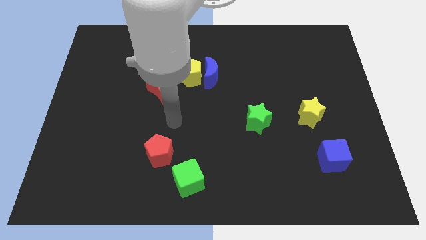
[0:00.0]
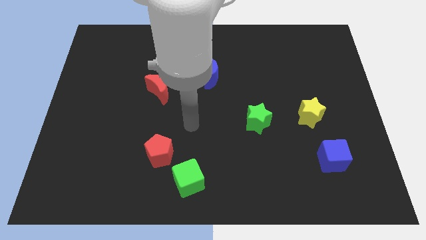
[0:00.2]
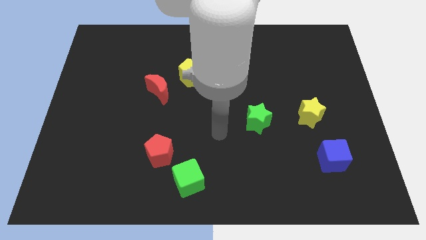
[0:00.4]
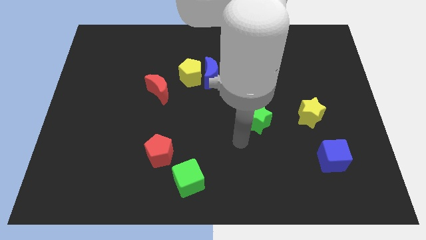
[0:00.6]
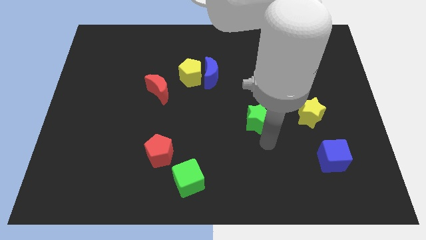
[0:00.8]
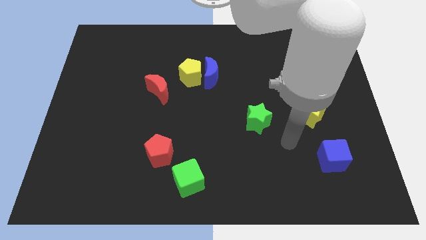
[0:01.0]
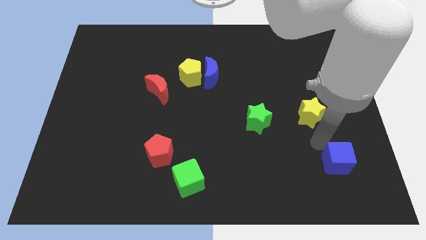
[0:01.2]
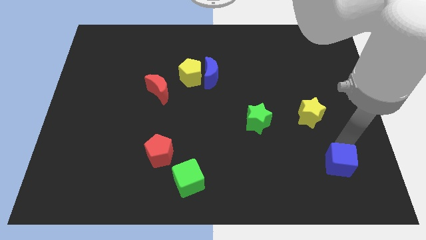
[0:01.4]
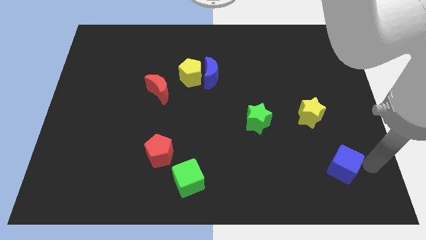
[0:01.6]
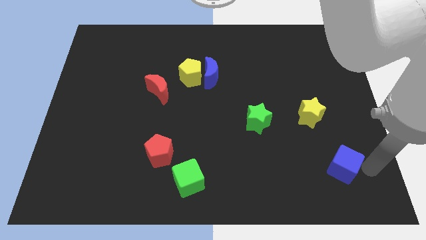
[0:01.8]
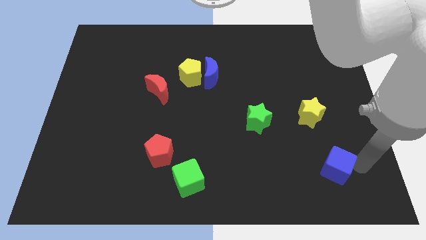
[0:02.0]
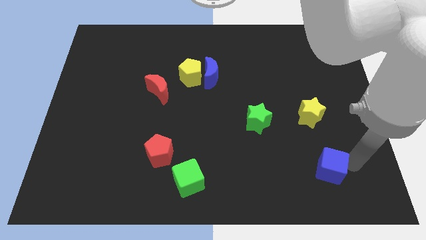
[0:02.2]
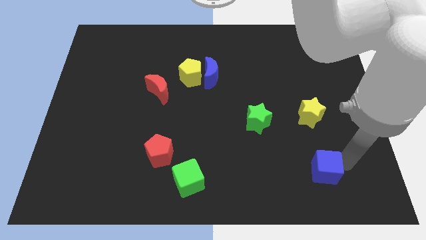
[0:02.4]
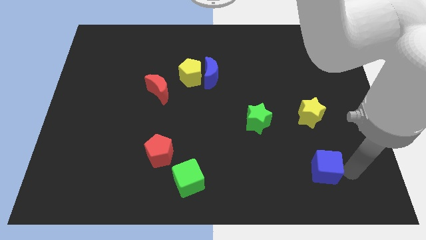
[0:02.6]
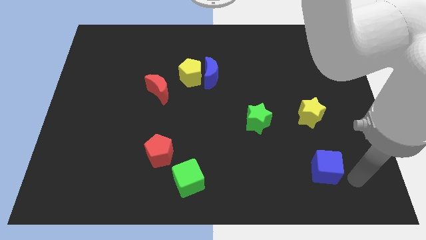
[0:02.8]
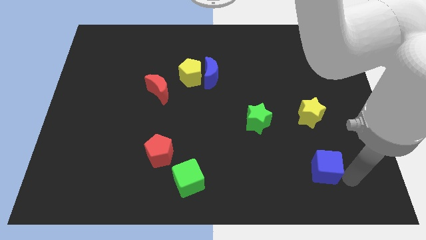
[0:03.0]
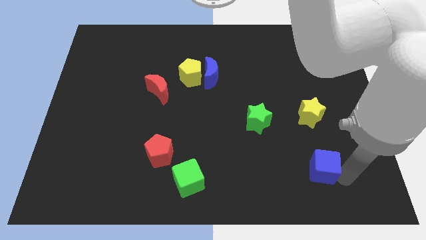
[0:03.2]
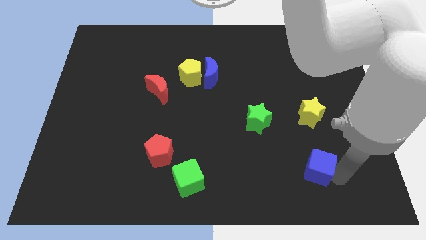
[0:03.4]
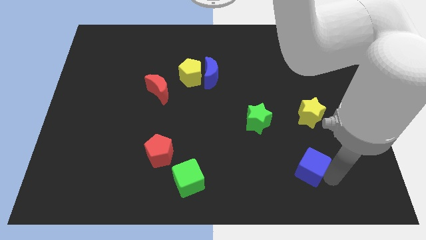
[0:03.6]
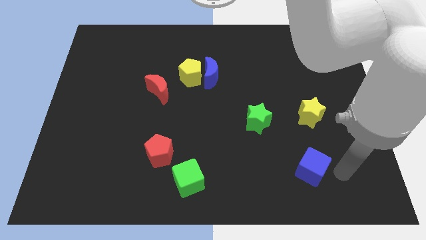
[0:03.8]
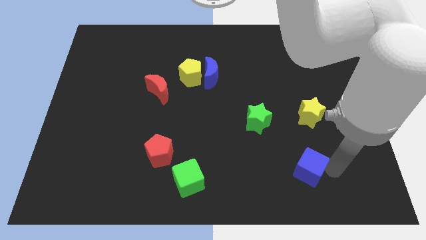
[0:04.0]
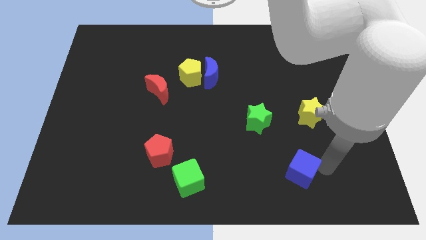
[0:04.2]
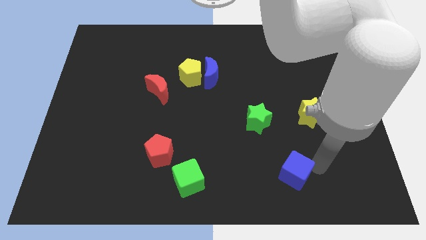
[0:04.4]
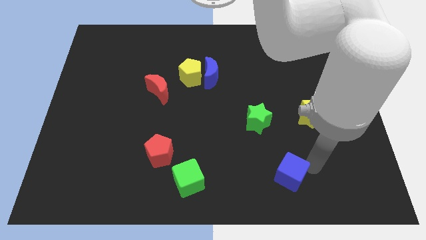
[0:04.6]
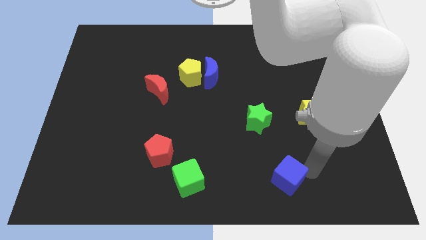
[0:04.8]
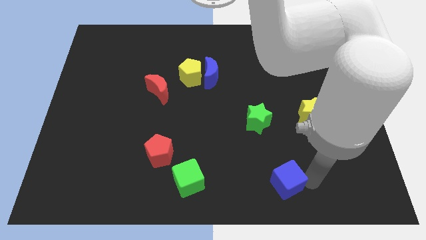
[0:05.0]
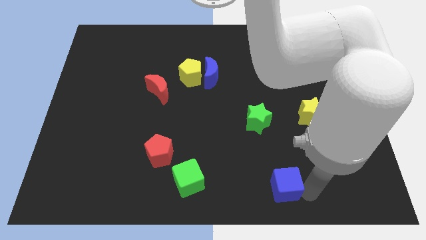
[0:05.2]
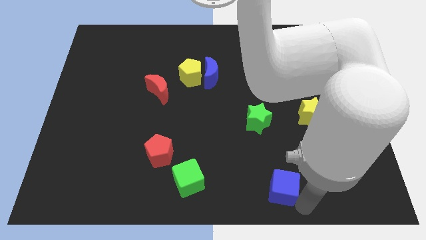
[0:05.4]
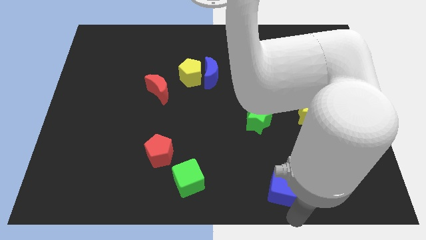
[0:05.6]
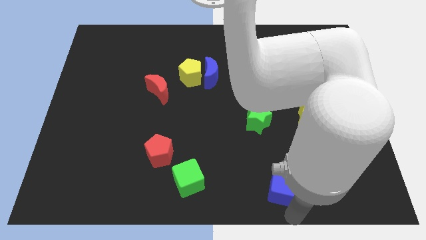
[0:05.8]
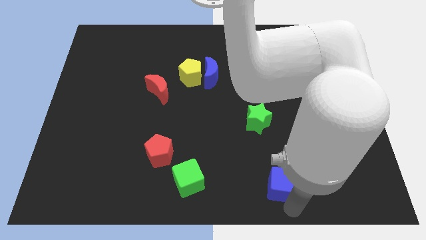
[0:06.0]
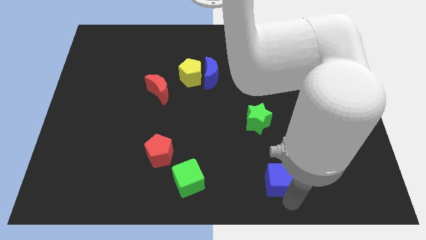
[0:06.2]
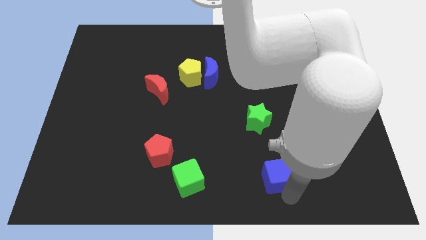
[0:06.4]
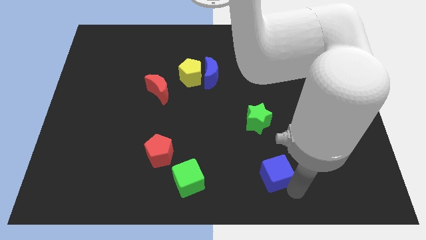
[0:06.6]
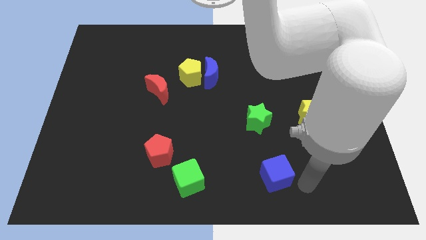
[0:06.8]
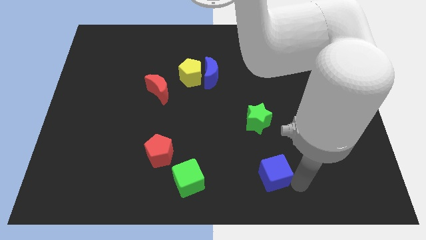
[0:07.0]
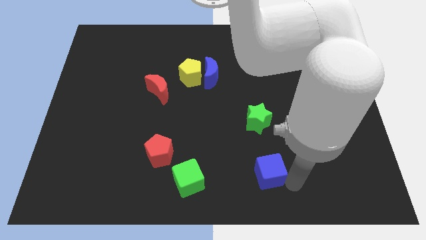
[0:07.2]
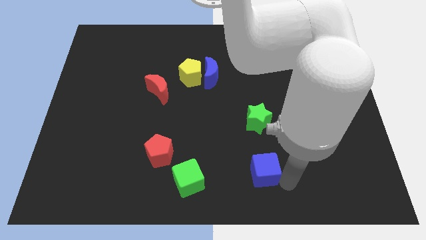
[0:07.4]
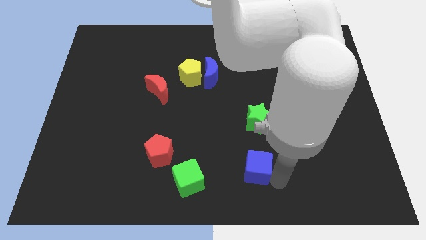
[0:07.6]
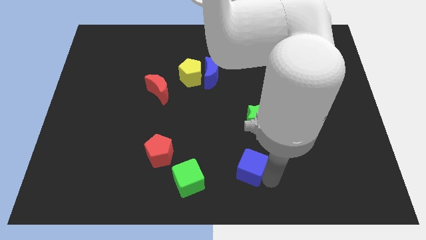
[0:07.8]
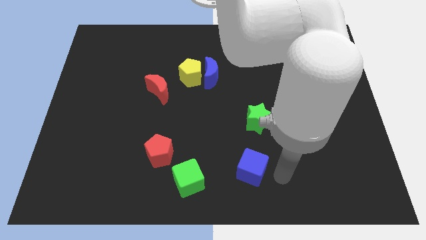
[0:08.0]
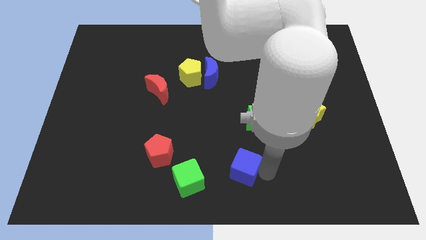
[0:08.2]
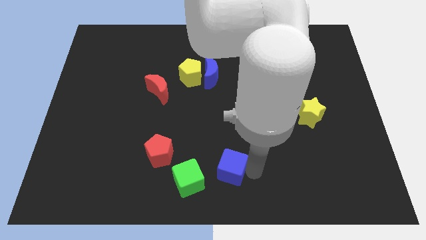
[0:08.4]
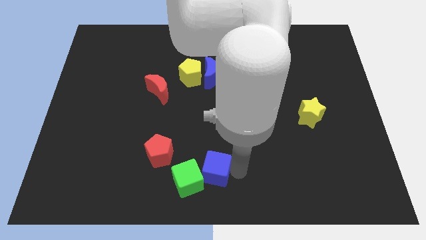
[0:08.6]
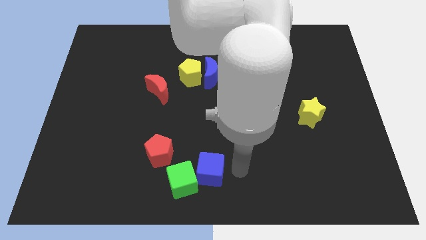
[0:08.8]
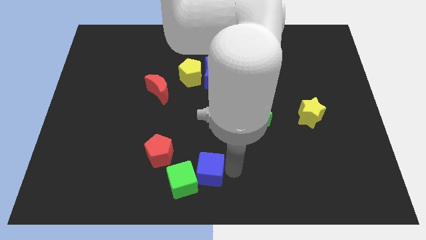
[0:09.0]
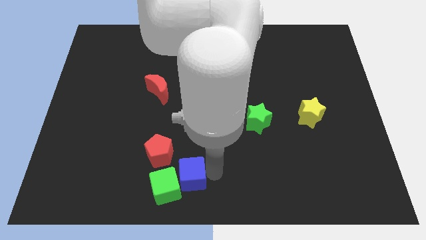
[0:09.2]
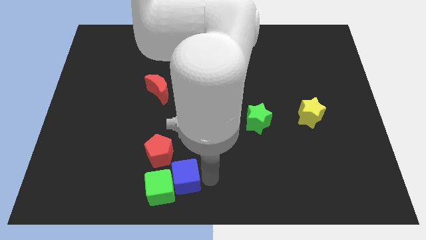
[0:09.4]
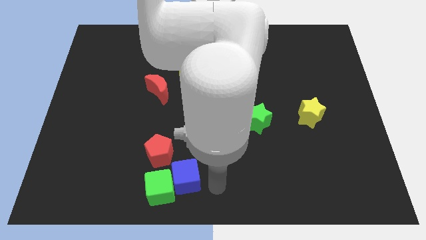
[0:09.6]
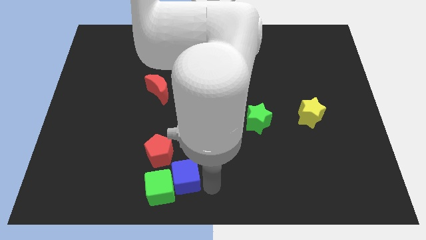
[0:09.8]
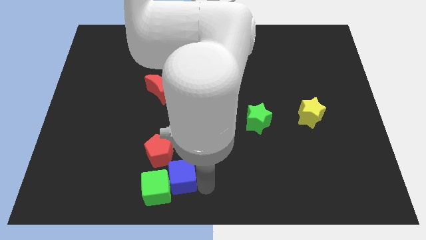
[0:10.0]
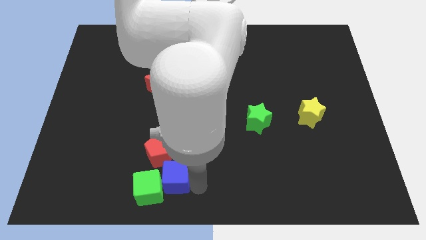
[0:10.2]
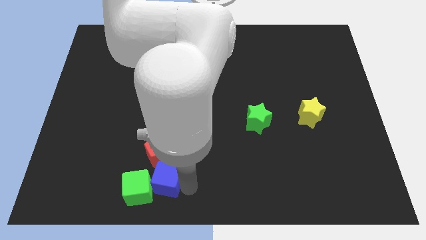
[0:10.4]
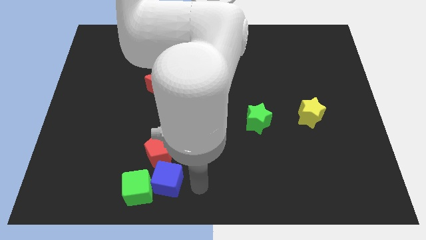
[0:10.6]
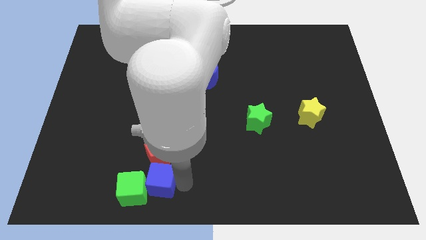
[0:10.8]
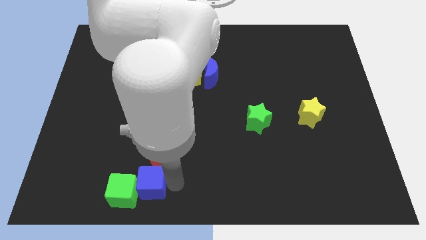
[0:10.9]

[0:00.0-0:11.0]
slide the blue cube diagonally down and to the left of the red pentagon

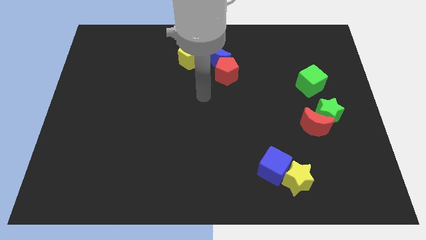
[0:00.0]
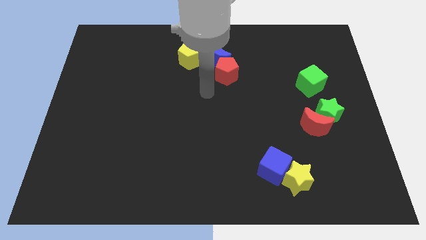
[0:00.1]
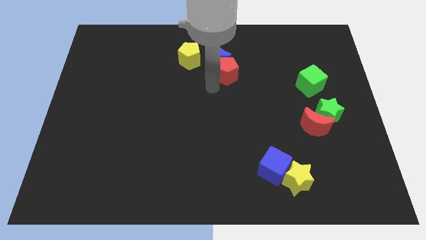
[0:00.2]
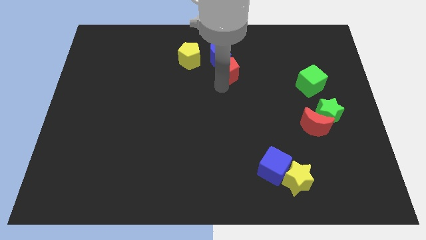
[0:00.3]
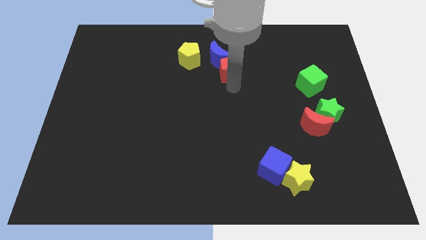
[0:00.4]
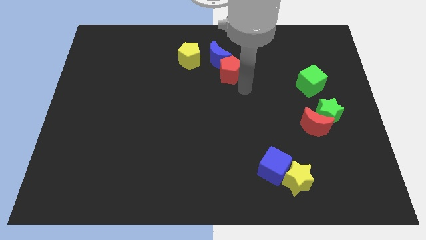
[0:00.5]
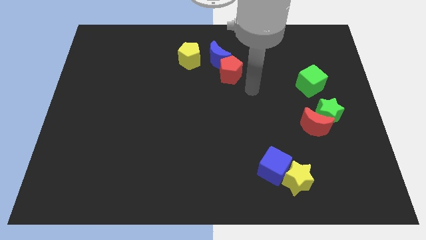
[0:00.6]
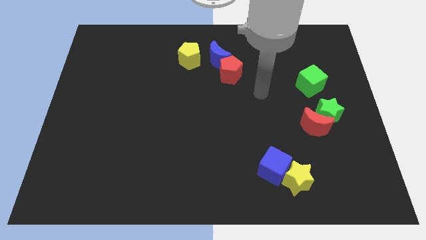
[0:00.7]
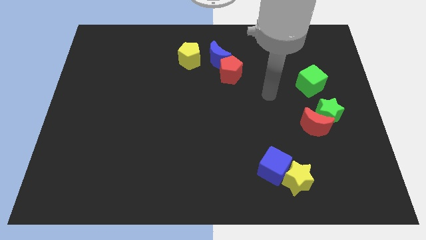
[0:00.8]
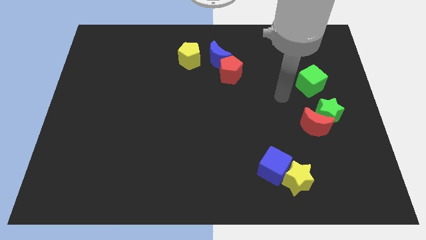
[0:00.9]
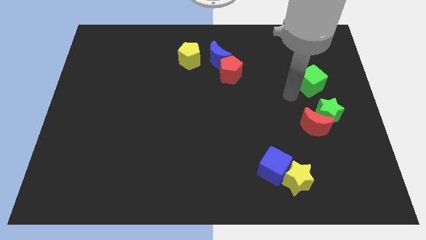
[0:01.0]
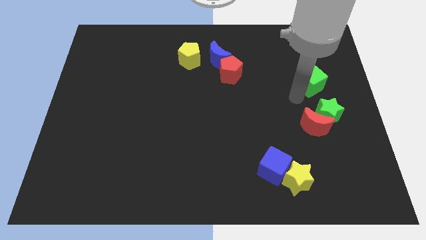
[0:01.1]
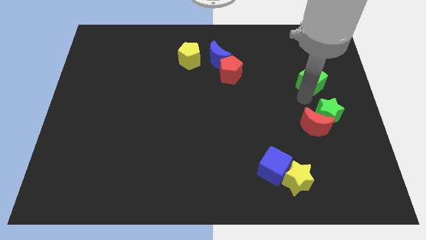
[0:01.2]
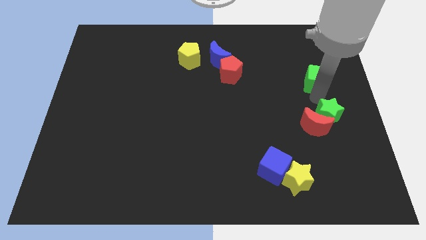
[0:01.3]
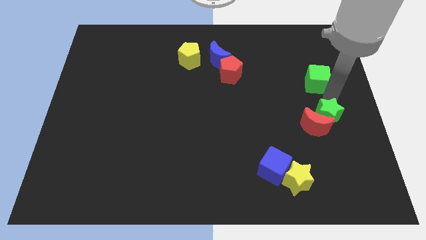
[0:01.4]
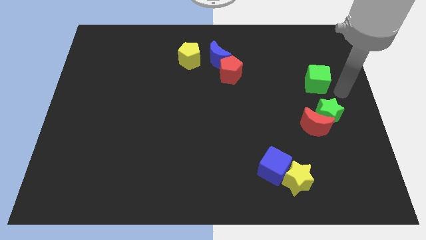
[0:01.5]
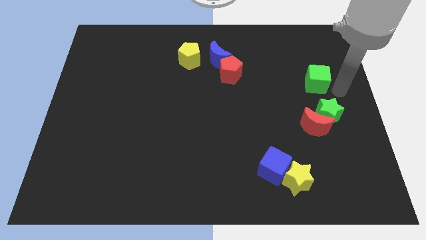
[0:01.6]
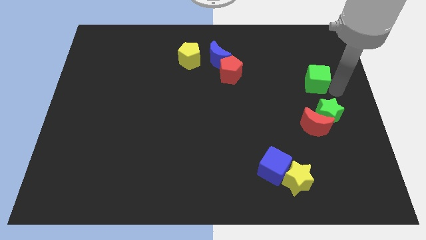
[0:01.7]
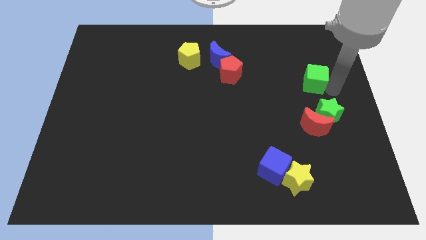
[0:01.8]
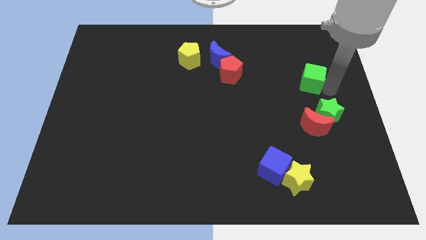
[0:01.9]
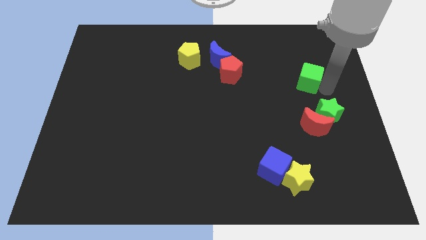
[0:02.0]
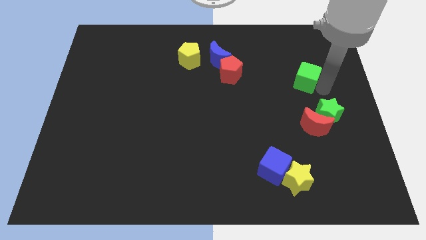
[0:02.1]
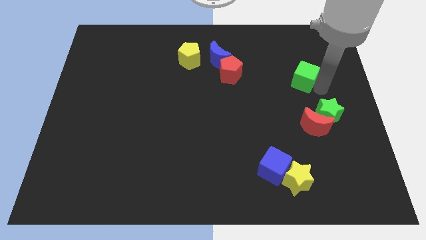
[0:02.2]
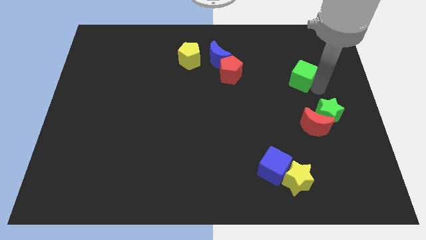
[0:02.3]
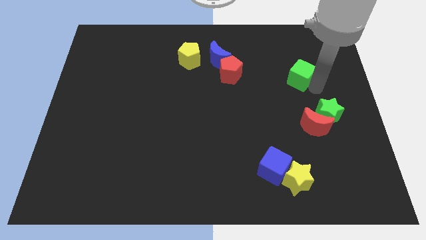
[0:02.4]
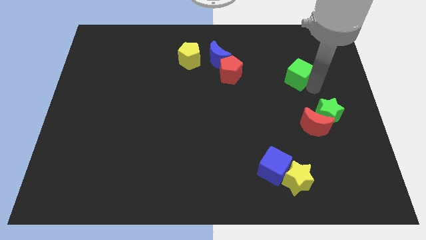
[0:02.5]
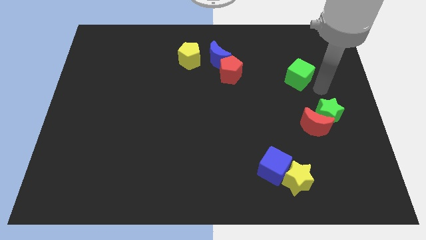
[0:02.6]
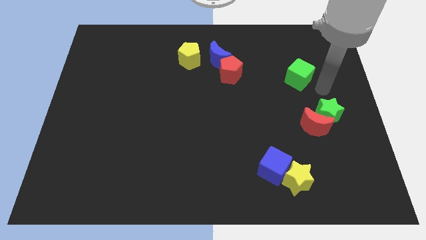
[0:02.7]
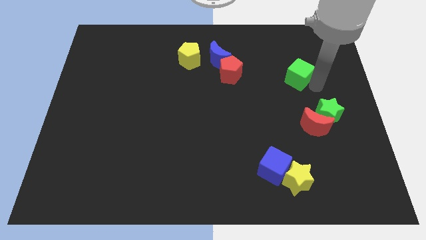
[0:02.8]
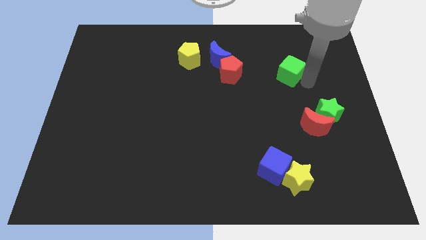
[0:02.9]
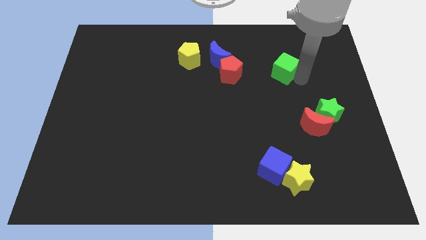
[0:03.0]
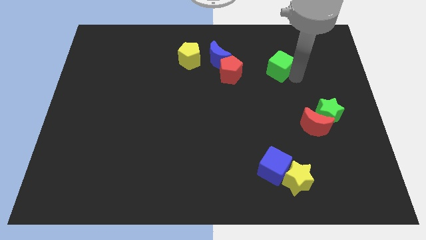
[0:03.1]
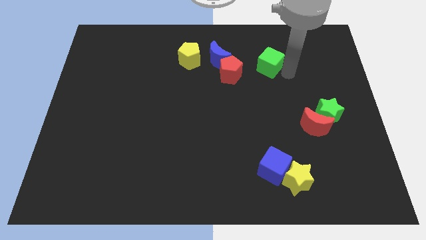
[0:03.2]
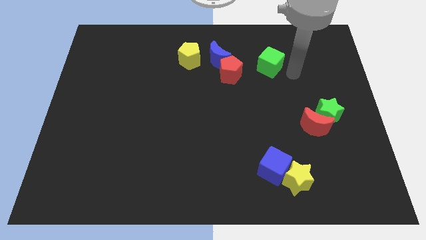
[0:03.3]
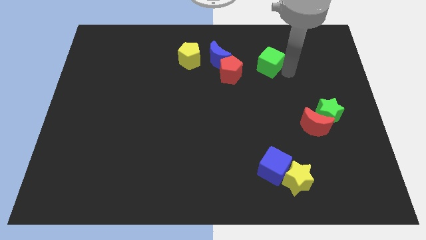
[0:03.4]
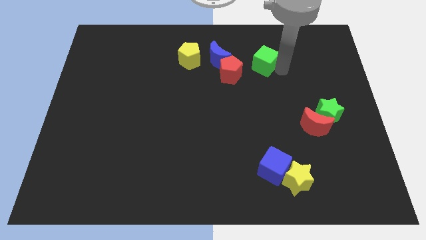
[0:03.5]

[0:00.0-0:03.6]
move the green cube diagonally up and to the right of the red pentagon
